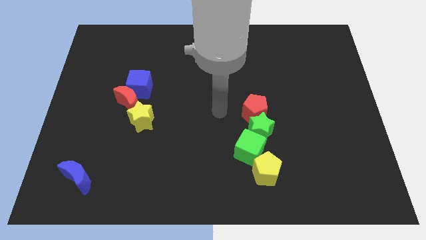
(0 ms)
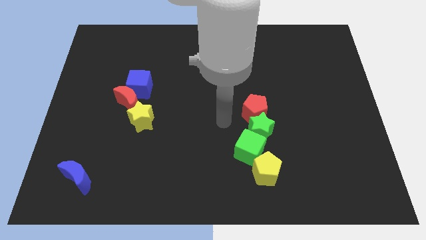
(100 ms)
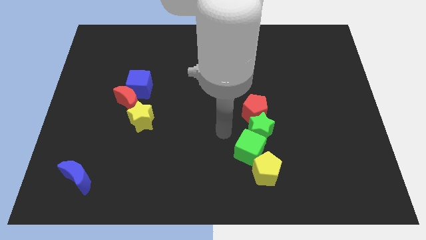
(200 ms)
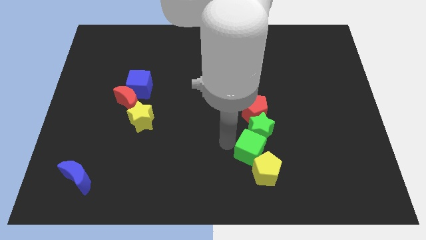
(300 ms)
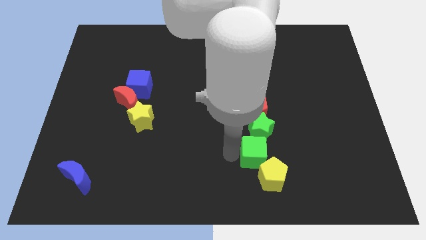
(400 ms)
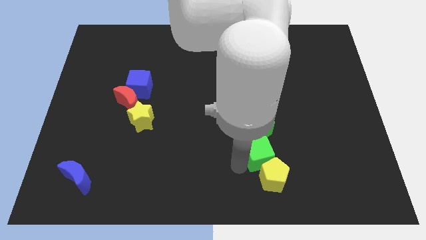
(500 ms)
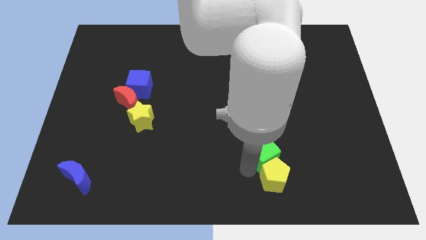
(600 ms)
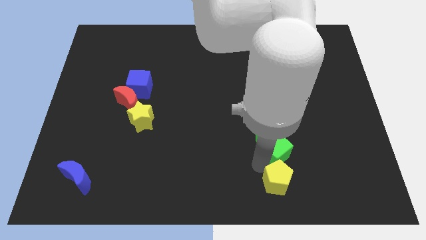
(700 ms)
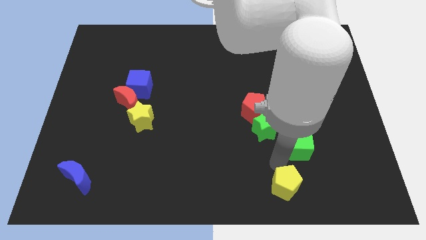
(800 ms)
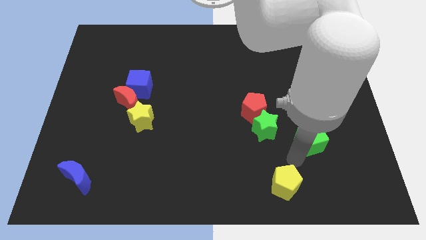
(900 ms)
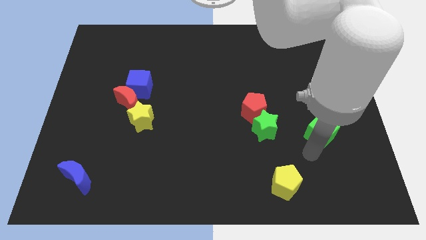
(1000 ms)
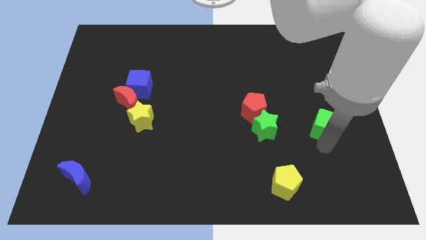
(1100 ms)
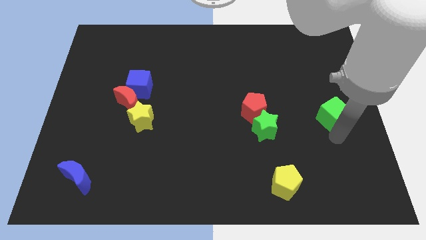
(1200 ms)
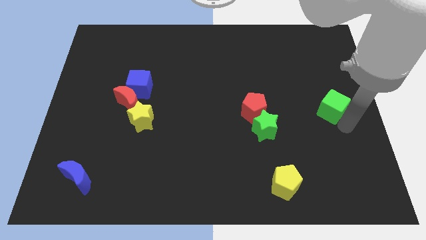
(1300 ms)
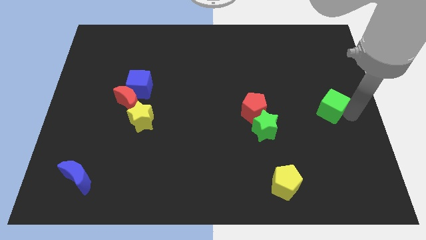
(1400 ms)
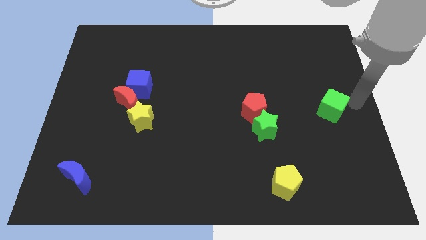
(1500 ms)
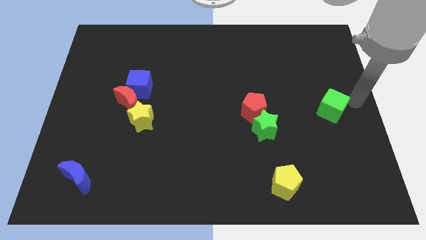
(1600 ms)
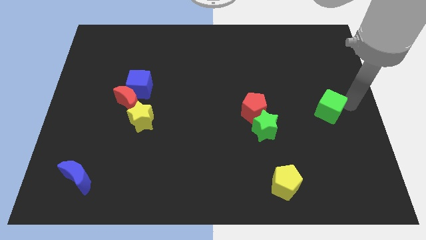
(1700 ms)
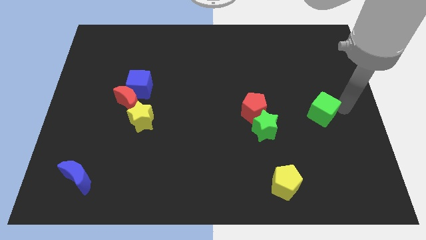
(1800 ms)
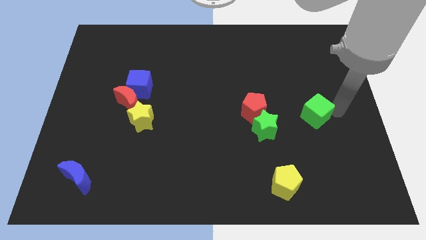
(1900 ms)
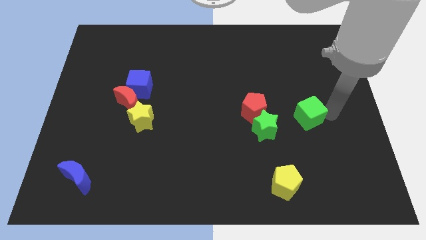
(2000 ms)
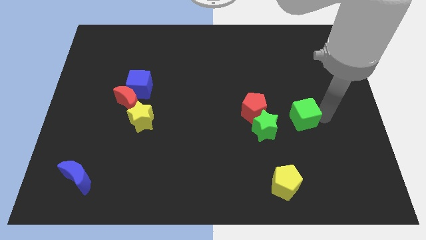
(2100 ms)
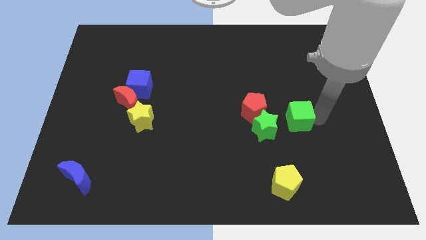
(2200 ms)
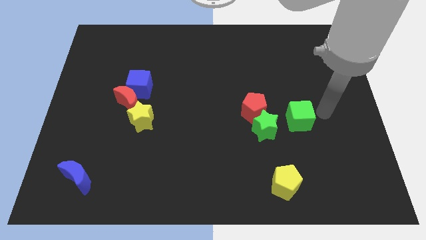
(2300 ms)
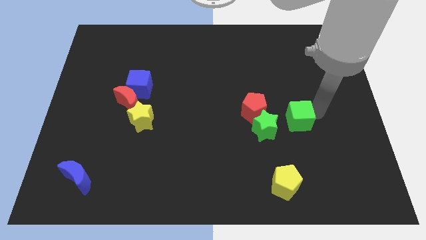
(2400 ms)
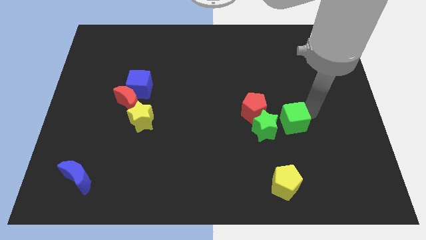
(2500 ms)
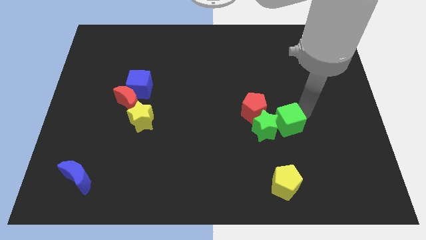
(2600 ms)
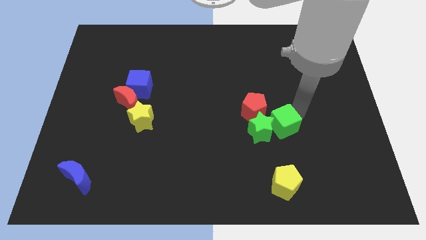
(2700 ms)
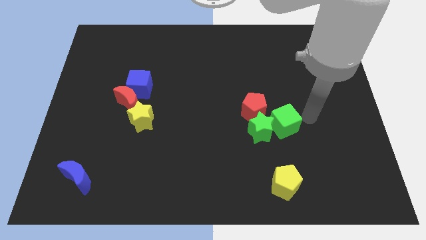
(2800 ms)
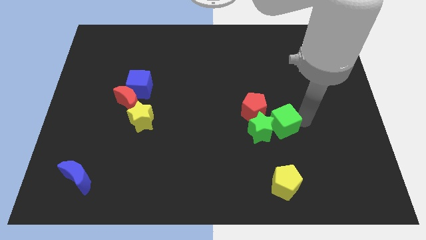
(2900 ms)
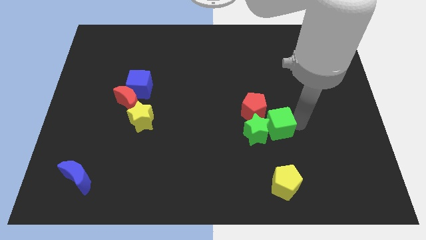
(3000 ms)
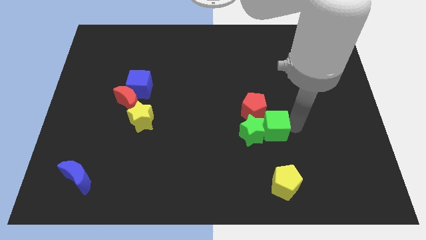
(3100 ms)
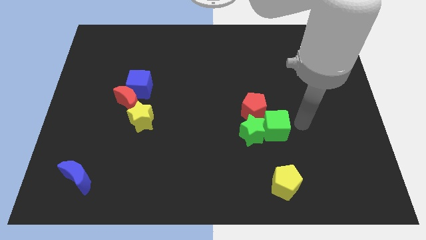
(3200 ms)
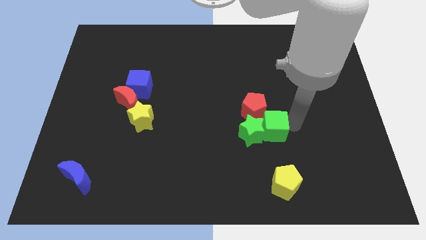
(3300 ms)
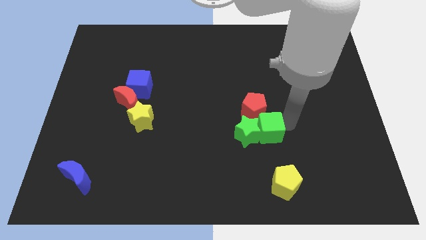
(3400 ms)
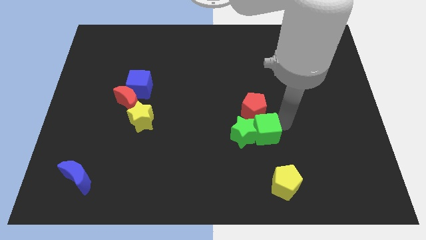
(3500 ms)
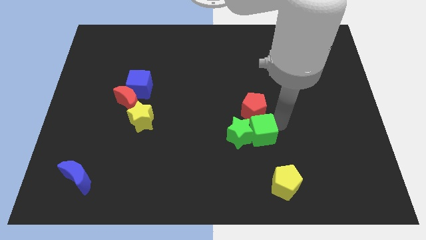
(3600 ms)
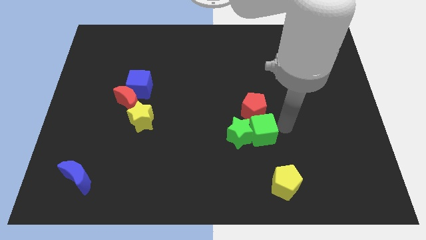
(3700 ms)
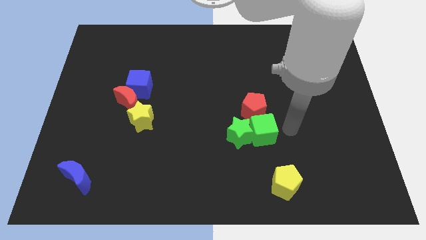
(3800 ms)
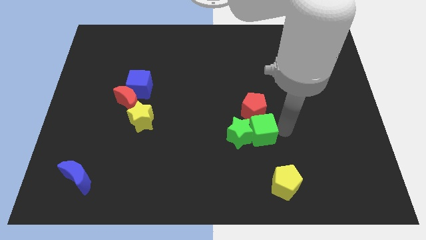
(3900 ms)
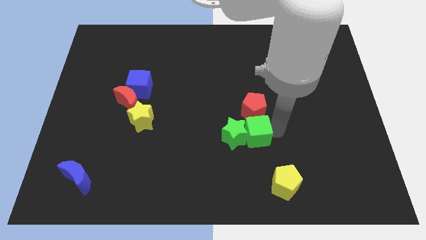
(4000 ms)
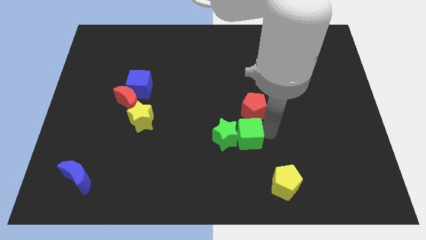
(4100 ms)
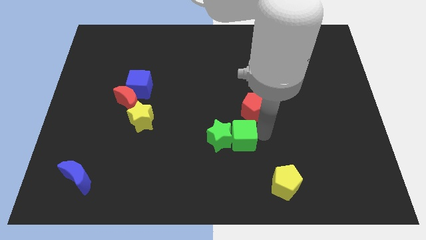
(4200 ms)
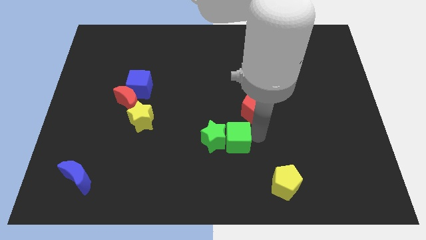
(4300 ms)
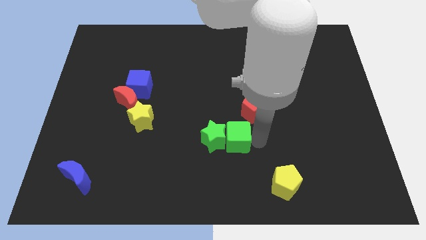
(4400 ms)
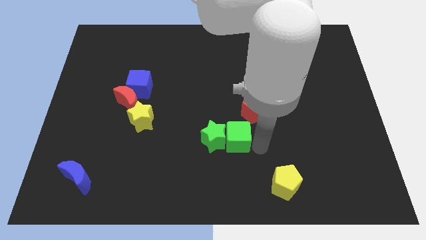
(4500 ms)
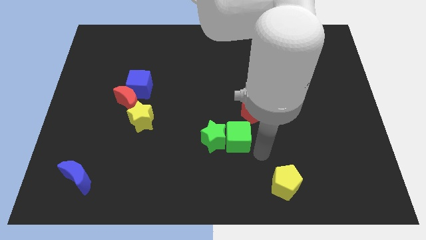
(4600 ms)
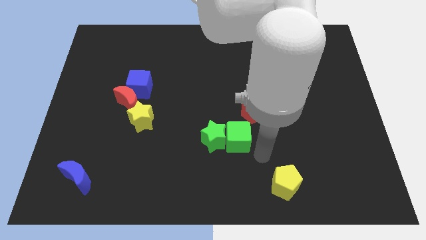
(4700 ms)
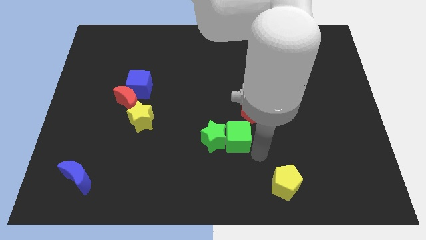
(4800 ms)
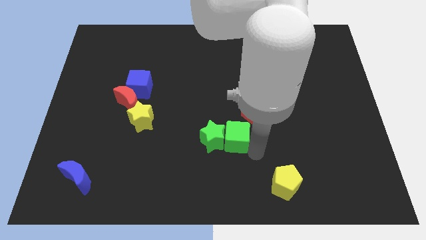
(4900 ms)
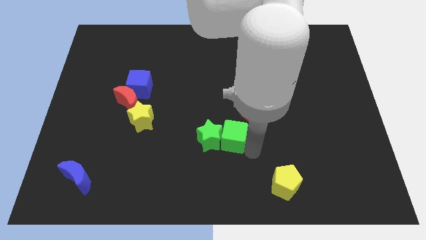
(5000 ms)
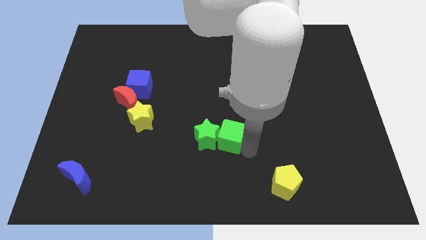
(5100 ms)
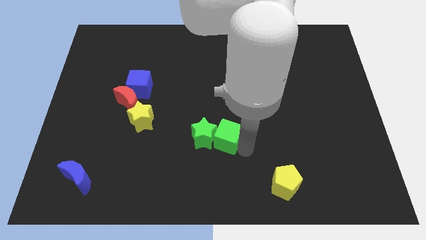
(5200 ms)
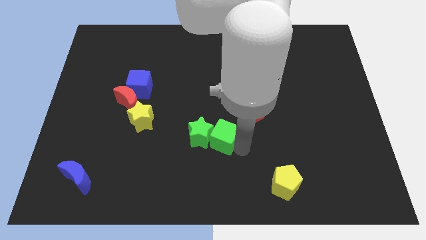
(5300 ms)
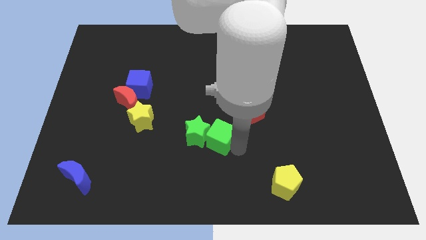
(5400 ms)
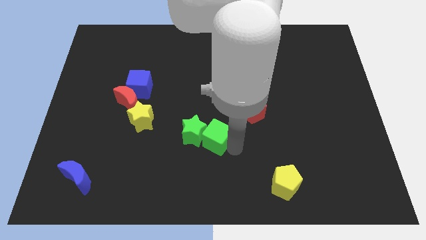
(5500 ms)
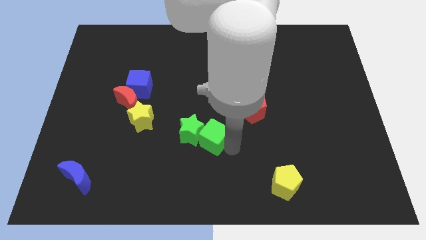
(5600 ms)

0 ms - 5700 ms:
move the green cube upwards and then left somewhat

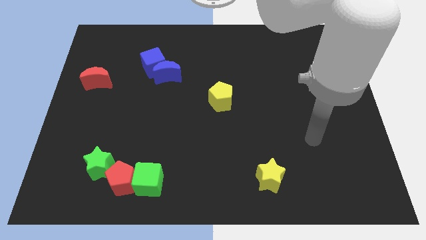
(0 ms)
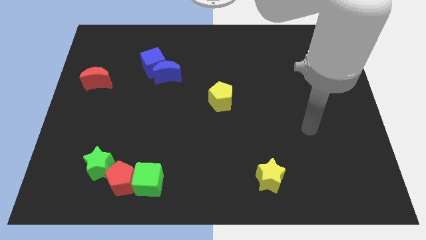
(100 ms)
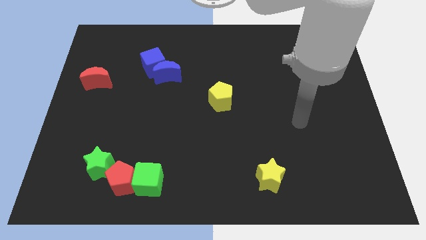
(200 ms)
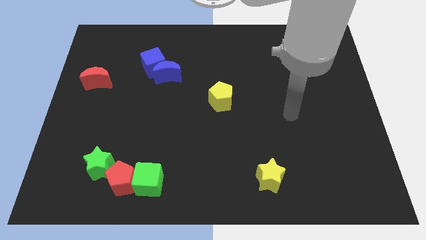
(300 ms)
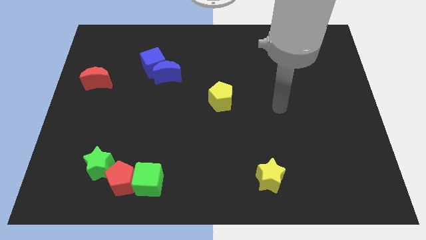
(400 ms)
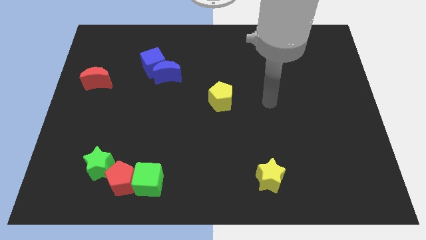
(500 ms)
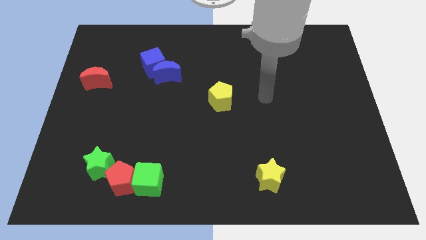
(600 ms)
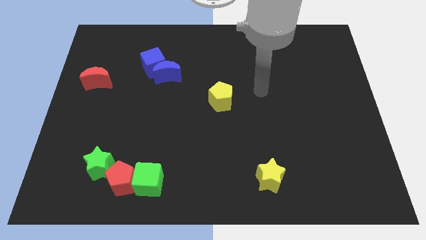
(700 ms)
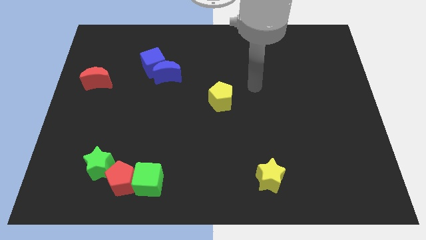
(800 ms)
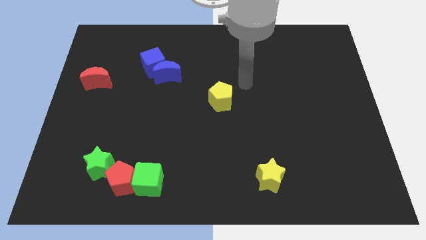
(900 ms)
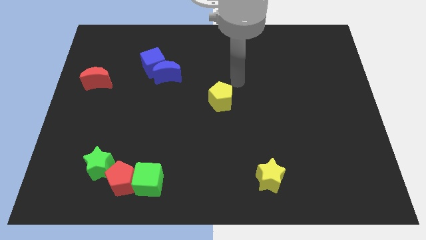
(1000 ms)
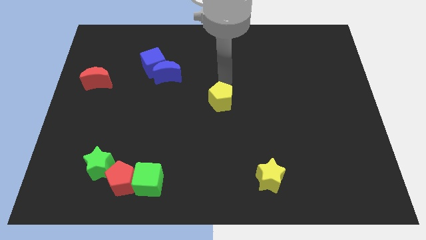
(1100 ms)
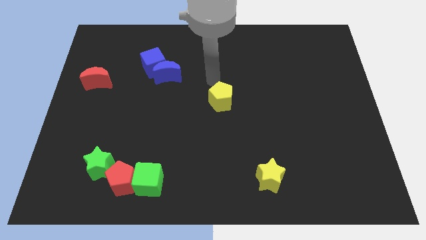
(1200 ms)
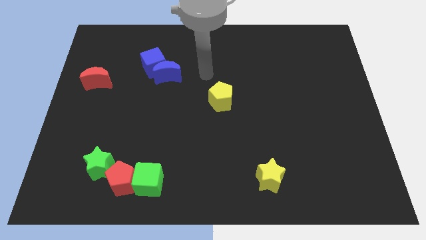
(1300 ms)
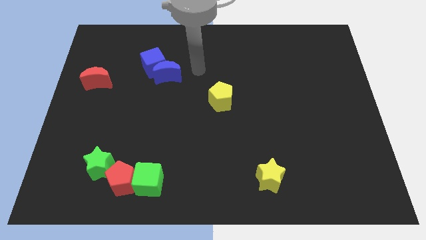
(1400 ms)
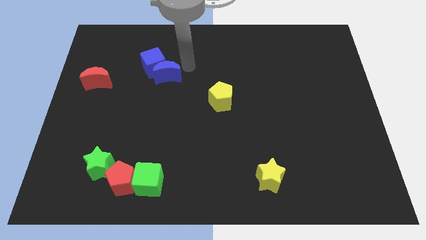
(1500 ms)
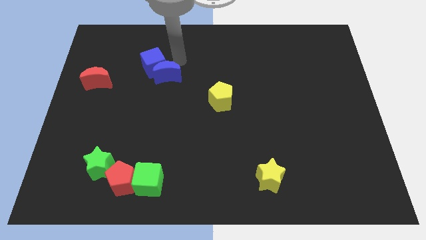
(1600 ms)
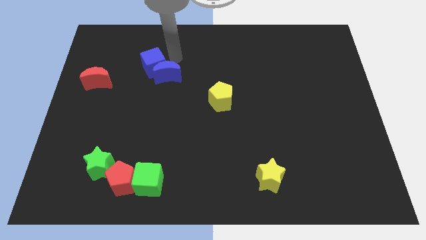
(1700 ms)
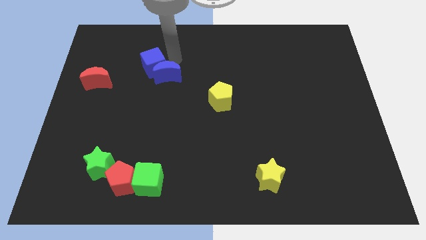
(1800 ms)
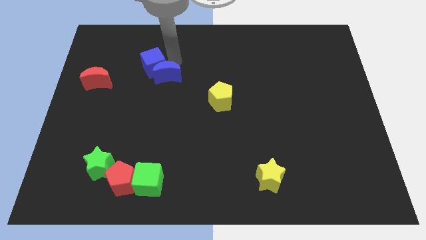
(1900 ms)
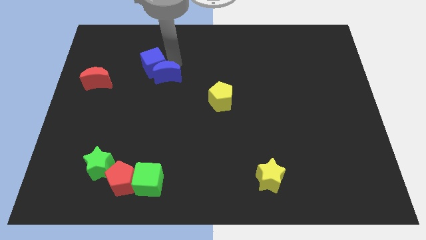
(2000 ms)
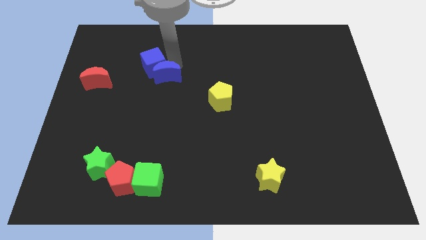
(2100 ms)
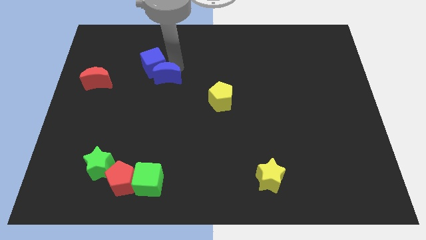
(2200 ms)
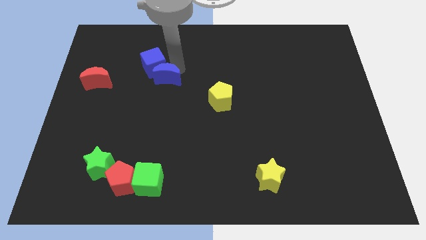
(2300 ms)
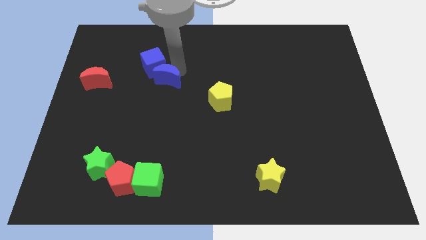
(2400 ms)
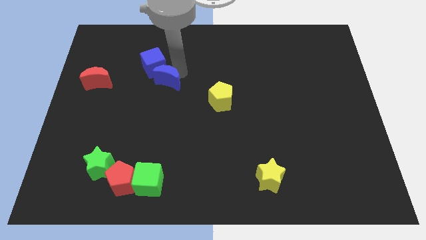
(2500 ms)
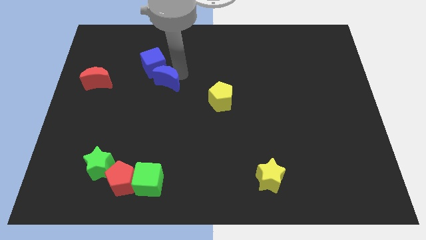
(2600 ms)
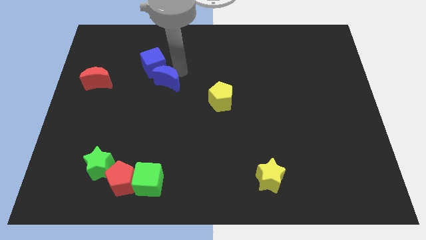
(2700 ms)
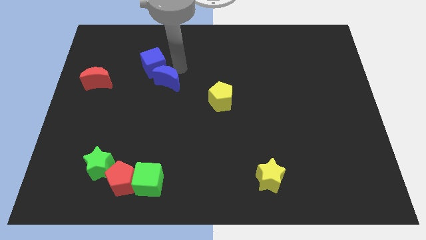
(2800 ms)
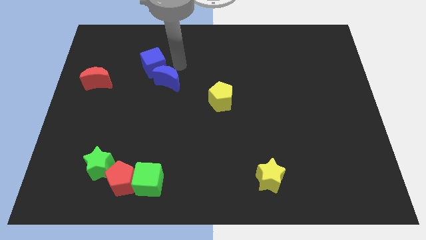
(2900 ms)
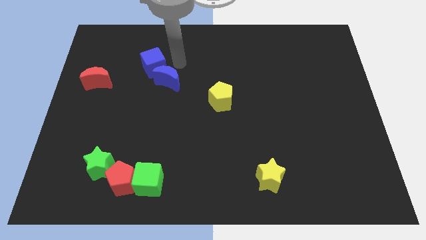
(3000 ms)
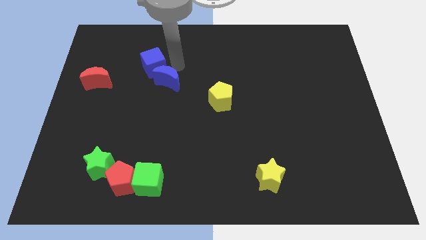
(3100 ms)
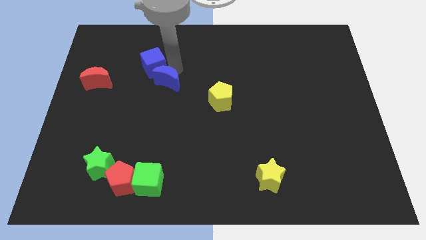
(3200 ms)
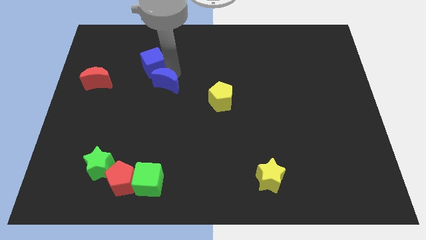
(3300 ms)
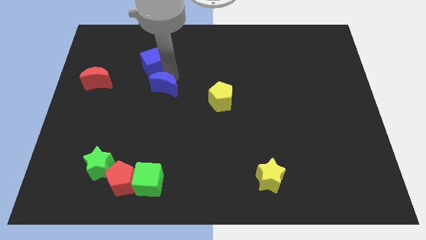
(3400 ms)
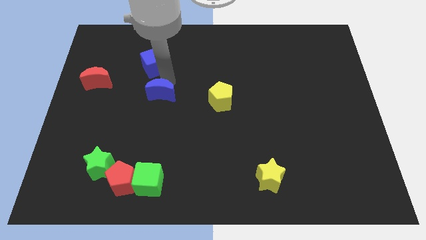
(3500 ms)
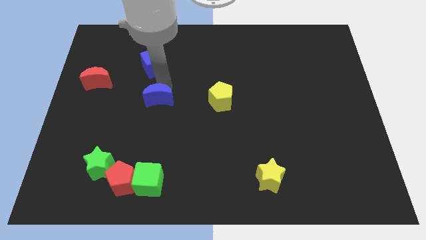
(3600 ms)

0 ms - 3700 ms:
move the blue moon downwards a little
